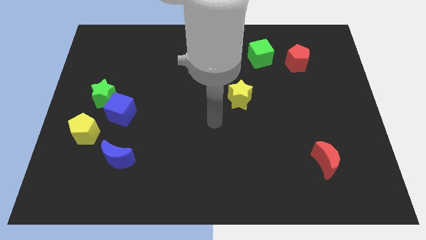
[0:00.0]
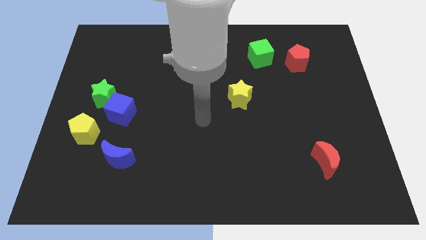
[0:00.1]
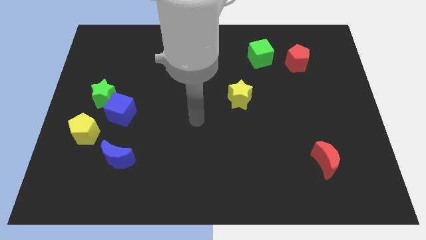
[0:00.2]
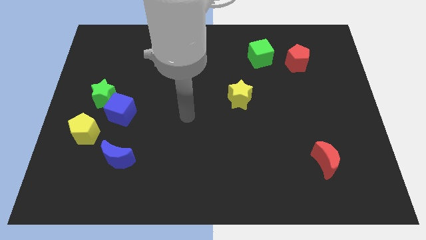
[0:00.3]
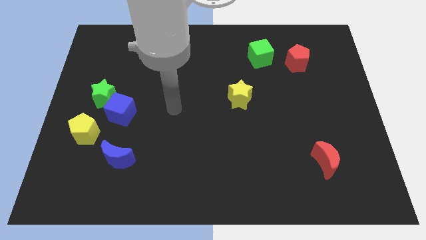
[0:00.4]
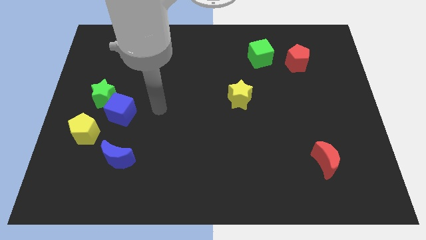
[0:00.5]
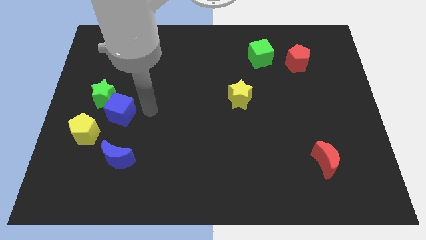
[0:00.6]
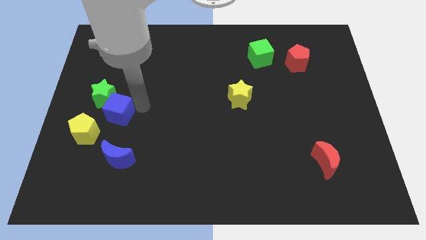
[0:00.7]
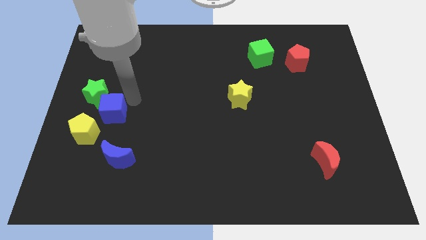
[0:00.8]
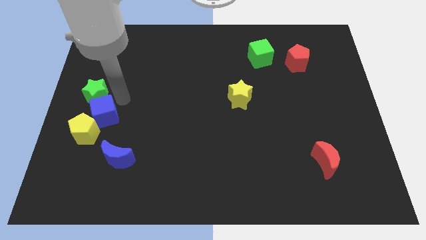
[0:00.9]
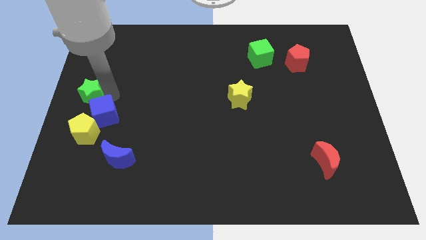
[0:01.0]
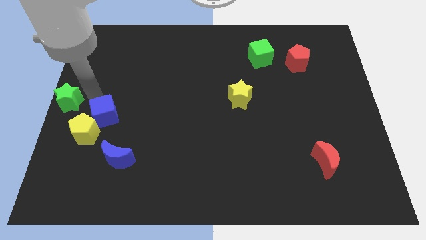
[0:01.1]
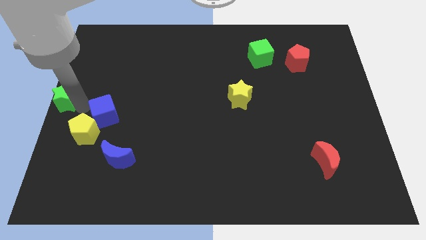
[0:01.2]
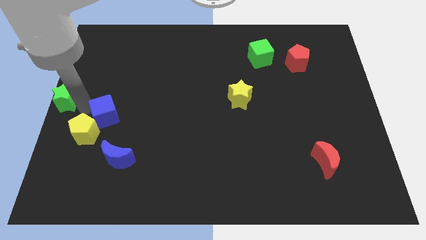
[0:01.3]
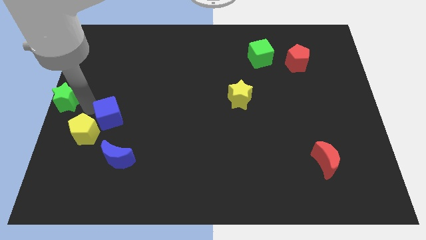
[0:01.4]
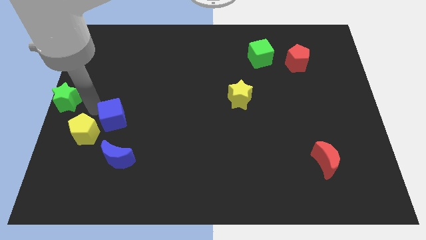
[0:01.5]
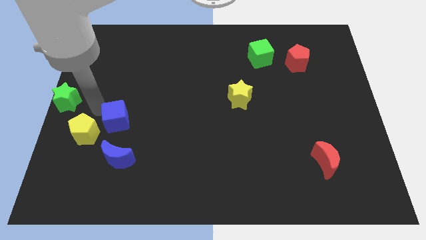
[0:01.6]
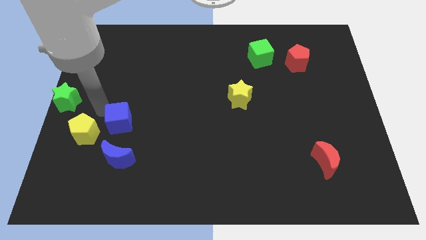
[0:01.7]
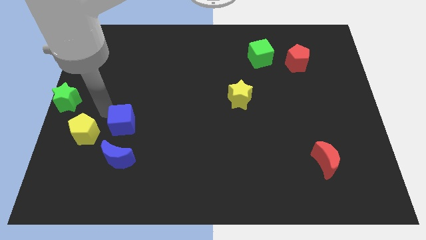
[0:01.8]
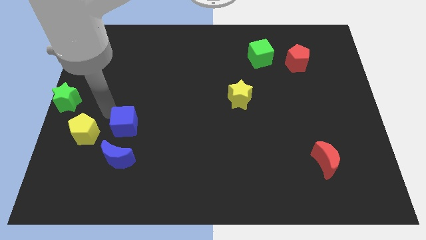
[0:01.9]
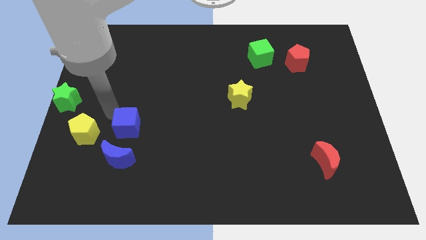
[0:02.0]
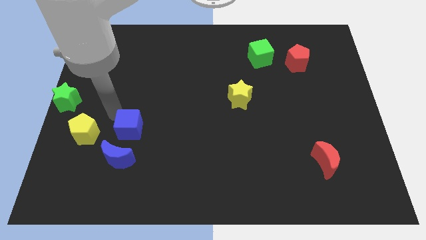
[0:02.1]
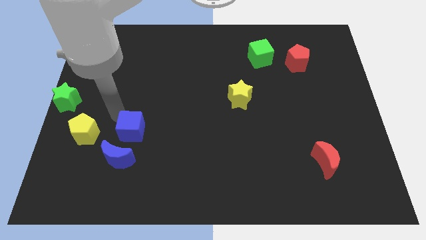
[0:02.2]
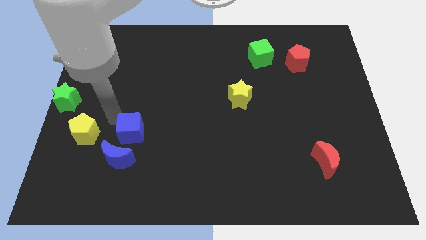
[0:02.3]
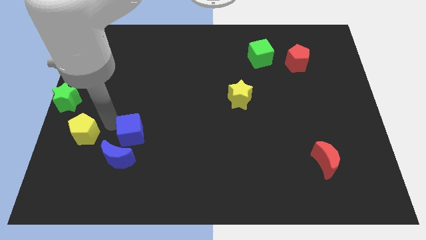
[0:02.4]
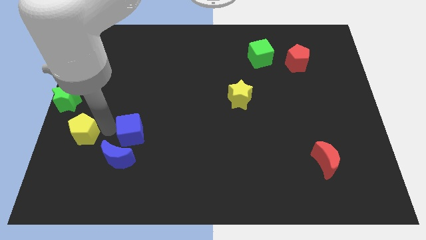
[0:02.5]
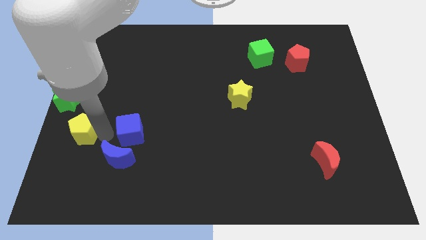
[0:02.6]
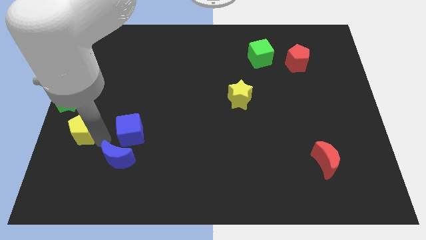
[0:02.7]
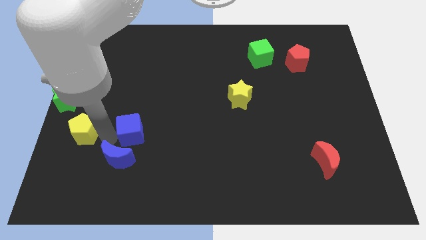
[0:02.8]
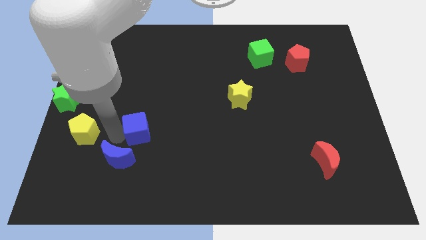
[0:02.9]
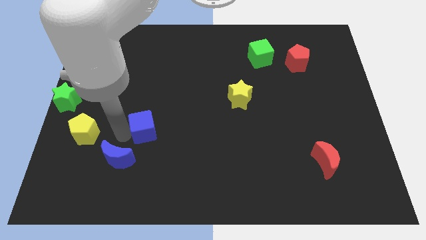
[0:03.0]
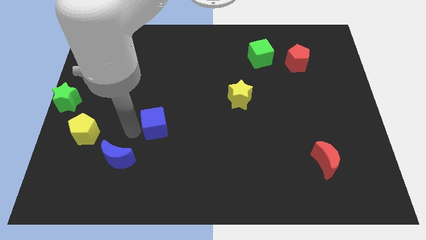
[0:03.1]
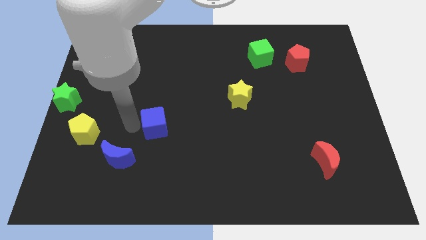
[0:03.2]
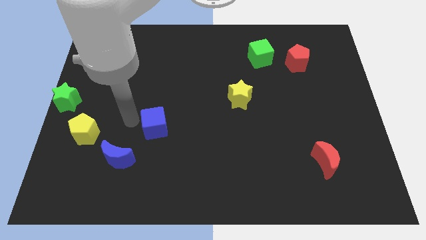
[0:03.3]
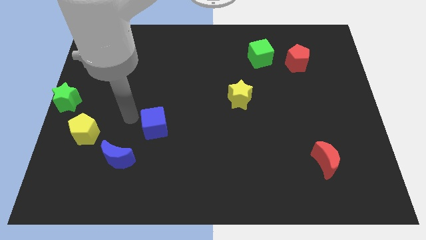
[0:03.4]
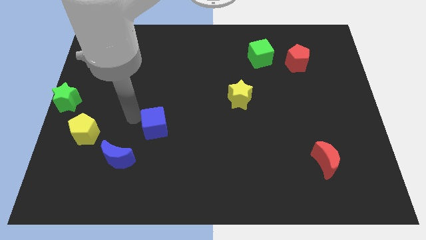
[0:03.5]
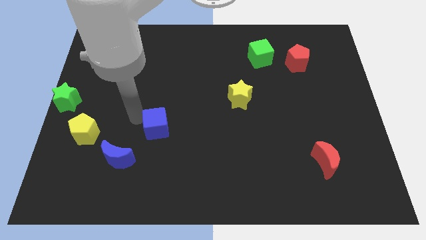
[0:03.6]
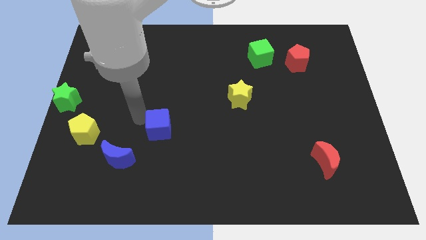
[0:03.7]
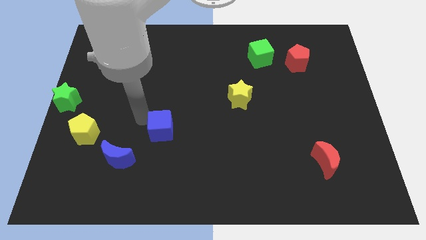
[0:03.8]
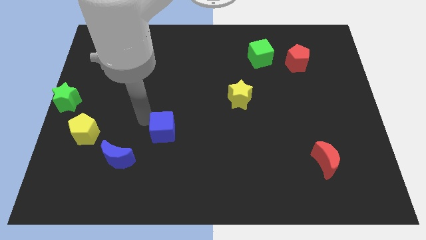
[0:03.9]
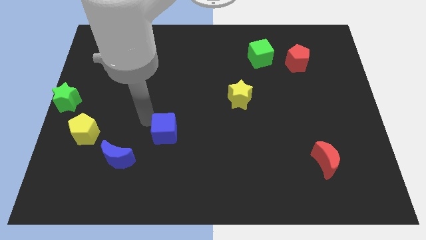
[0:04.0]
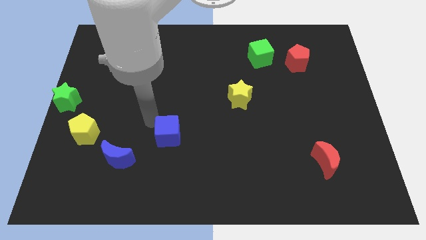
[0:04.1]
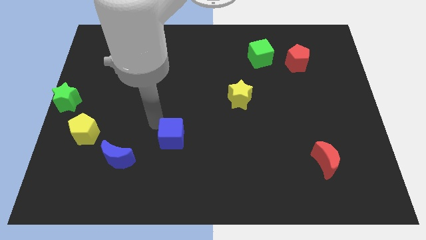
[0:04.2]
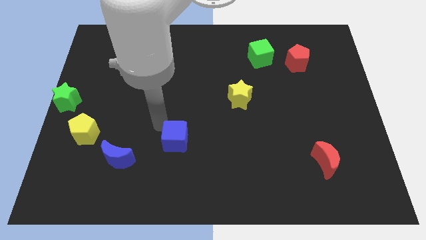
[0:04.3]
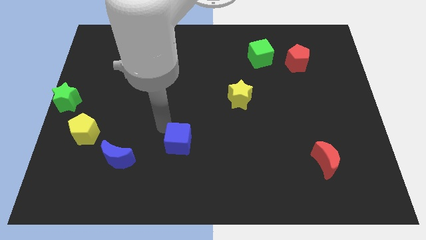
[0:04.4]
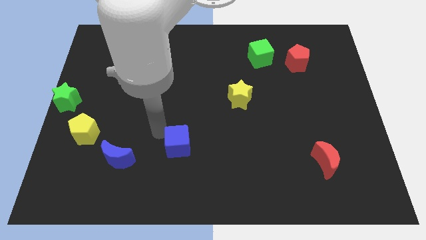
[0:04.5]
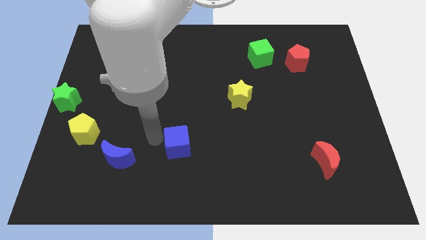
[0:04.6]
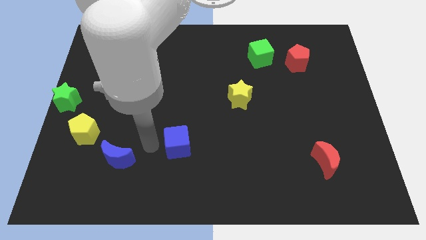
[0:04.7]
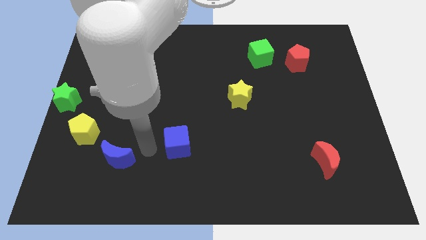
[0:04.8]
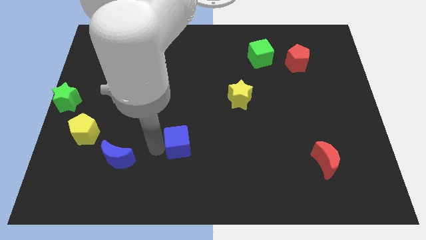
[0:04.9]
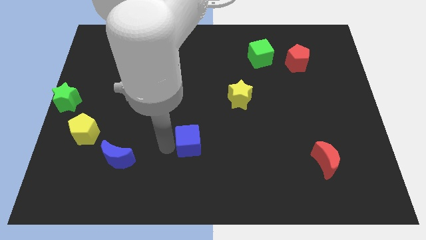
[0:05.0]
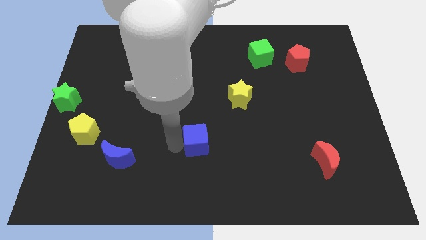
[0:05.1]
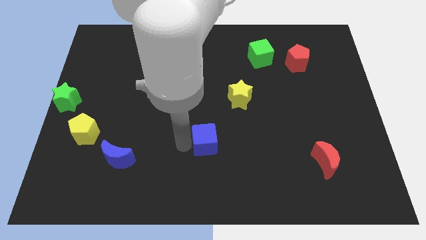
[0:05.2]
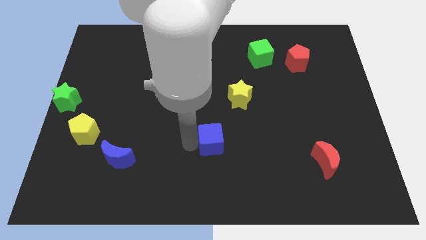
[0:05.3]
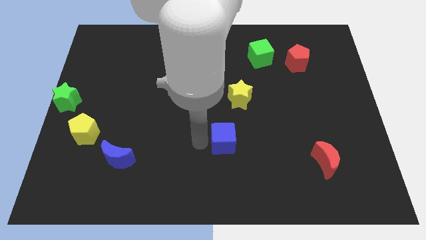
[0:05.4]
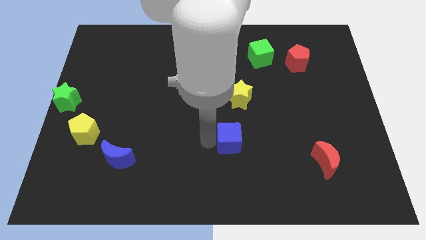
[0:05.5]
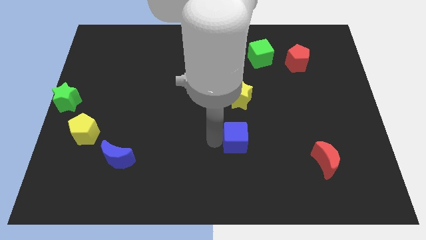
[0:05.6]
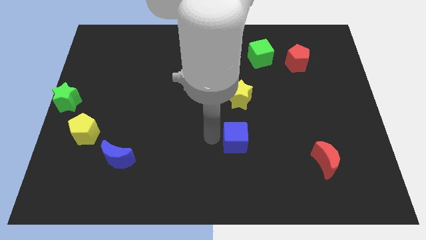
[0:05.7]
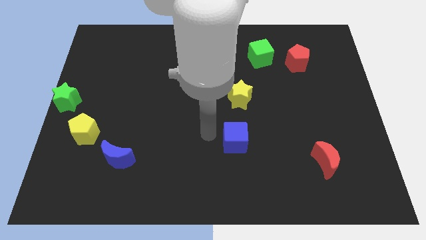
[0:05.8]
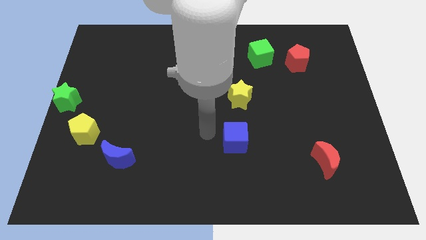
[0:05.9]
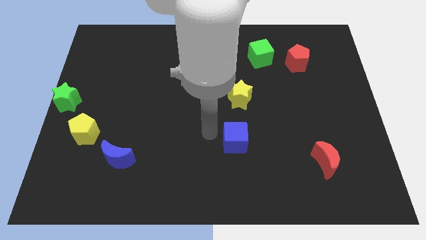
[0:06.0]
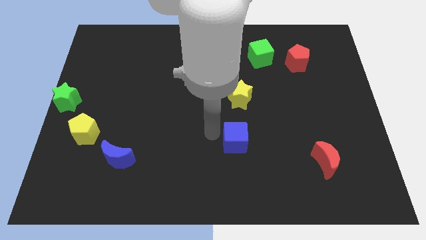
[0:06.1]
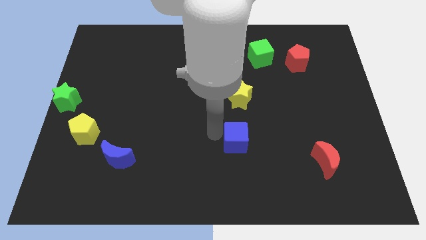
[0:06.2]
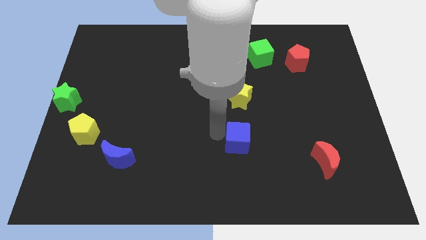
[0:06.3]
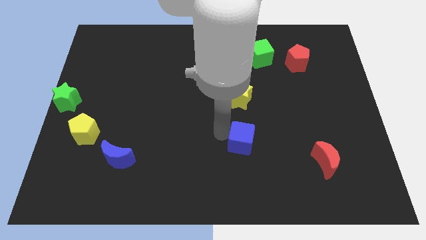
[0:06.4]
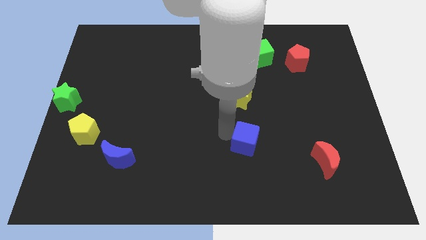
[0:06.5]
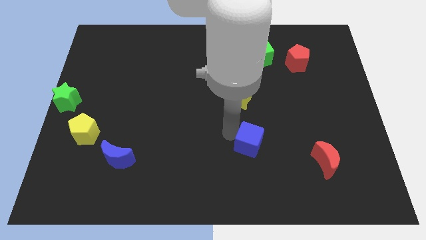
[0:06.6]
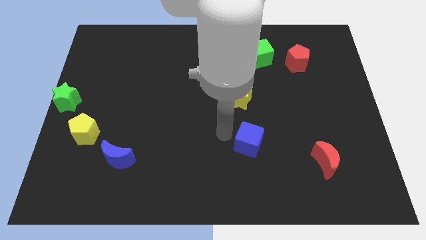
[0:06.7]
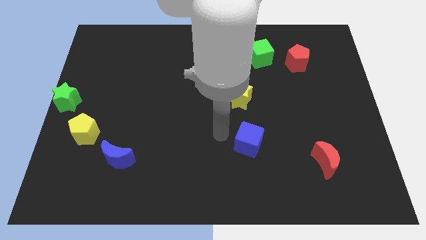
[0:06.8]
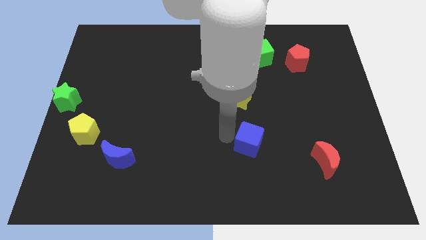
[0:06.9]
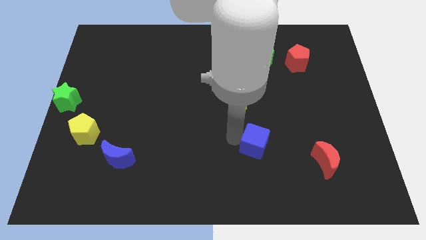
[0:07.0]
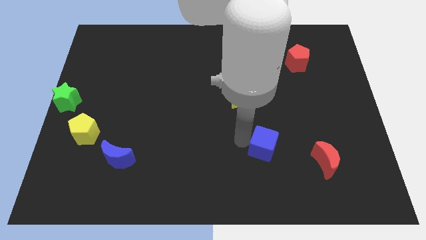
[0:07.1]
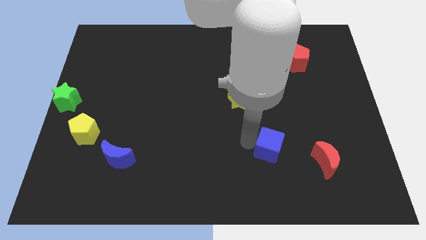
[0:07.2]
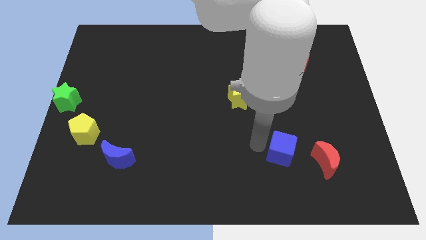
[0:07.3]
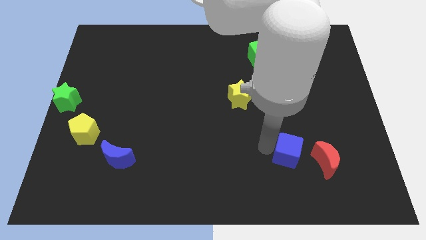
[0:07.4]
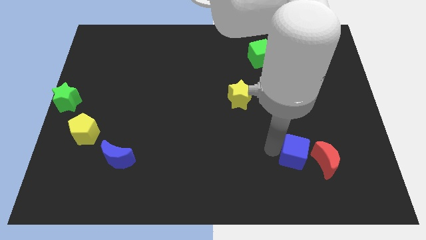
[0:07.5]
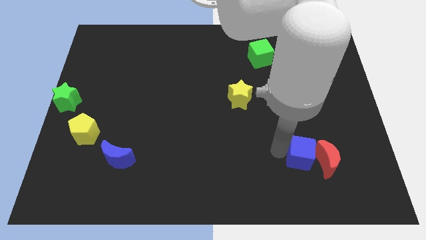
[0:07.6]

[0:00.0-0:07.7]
move the blue cube to the red moon
